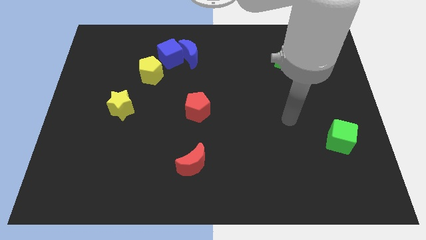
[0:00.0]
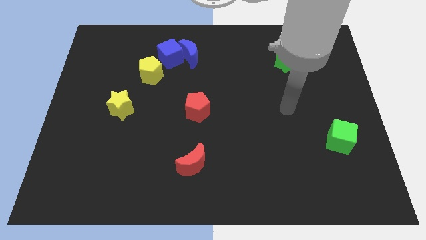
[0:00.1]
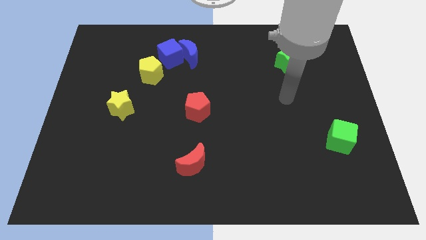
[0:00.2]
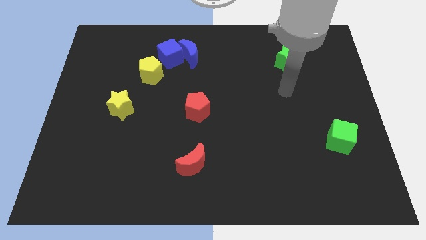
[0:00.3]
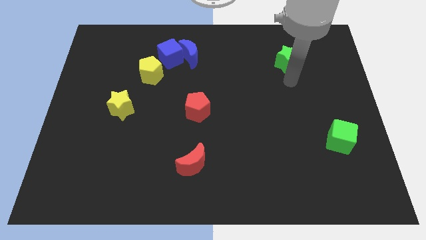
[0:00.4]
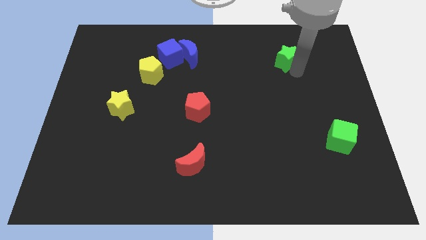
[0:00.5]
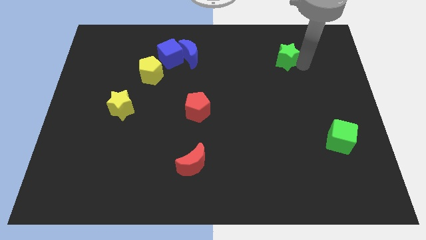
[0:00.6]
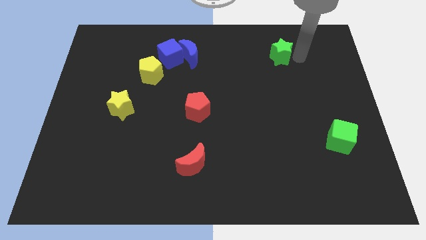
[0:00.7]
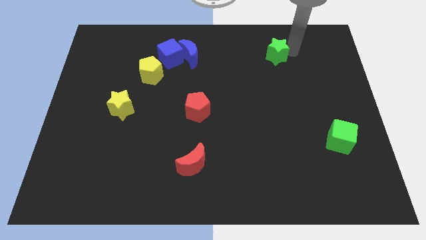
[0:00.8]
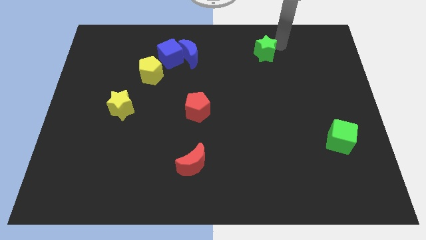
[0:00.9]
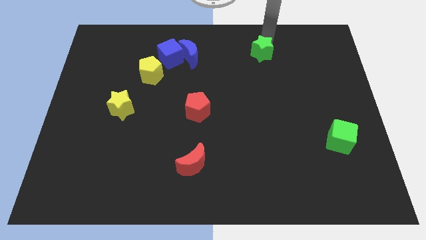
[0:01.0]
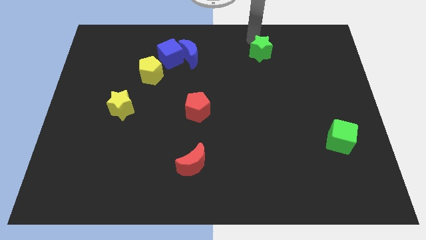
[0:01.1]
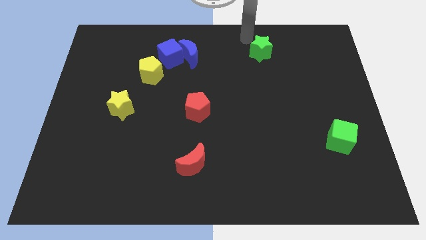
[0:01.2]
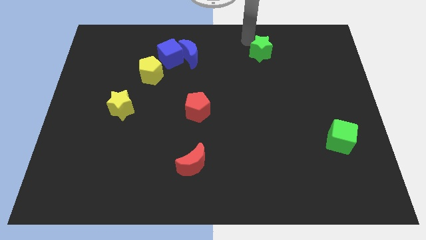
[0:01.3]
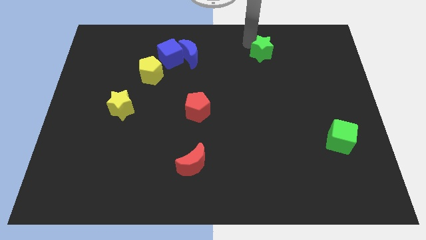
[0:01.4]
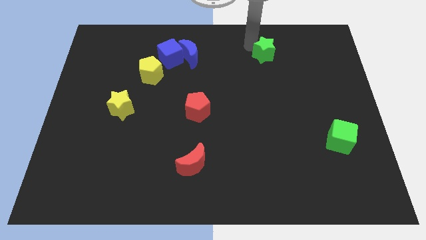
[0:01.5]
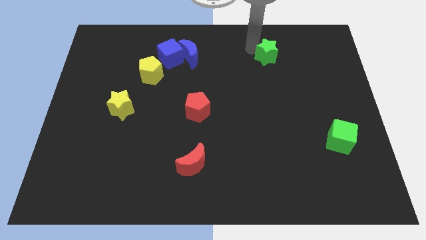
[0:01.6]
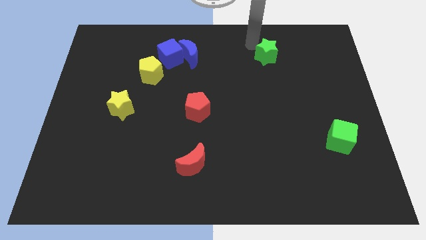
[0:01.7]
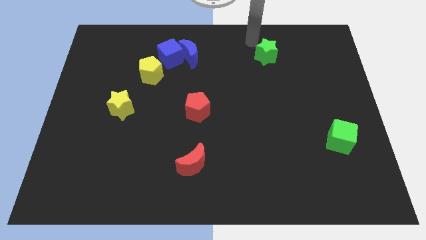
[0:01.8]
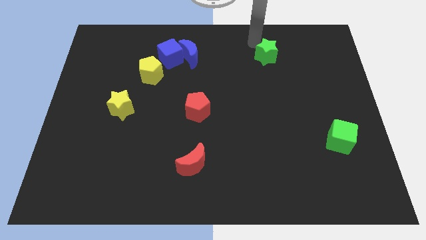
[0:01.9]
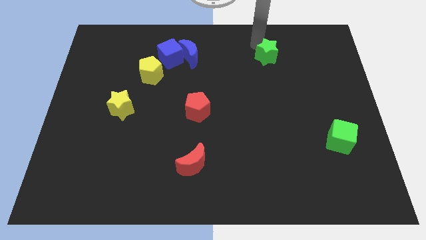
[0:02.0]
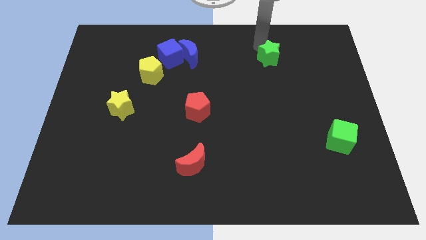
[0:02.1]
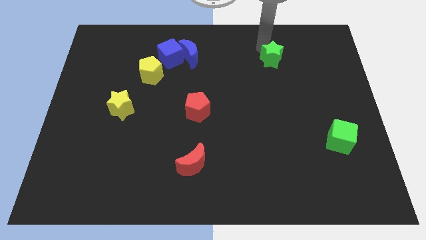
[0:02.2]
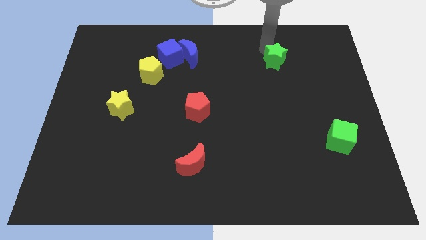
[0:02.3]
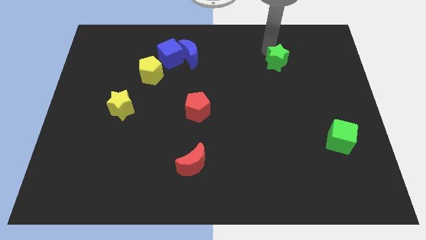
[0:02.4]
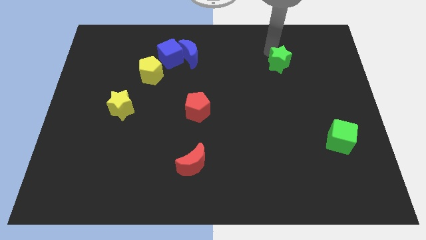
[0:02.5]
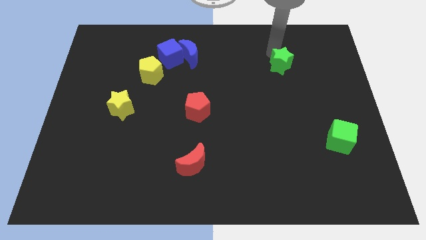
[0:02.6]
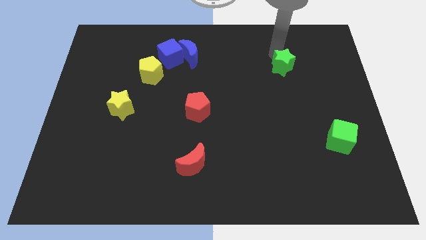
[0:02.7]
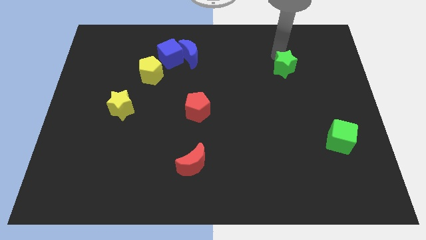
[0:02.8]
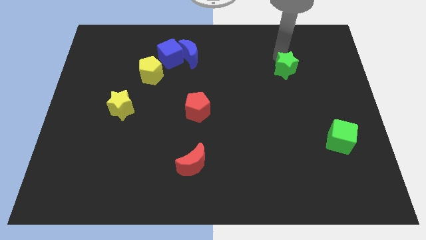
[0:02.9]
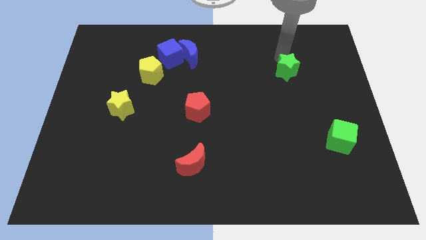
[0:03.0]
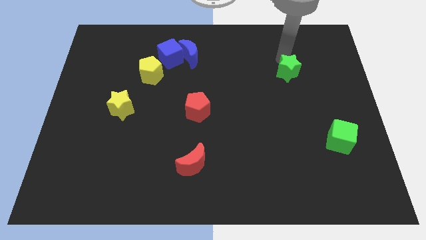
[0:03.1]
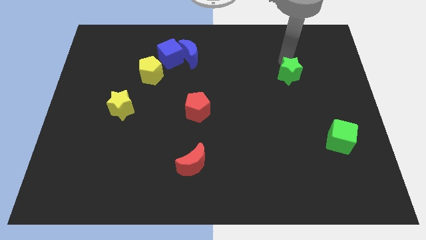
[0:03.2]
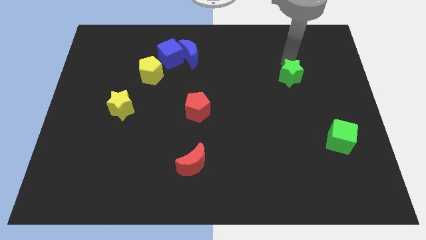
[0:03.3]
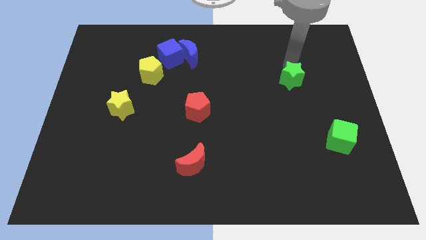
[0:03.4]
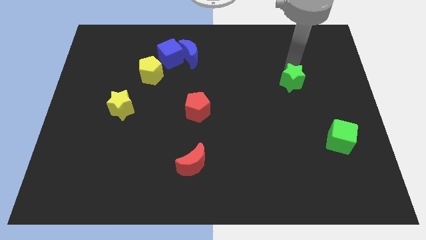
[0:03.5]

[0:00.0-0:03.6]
slightly move the green star down

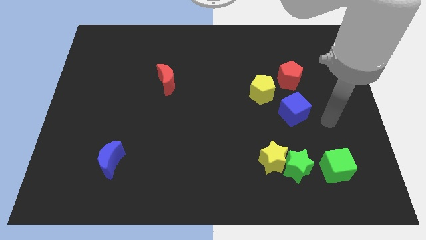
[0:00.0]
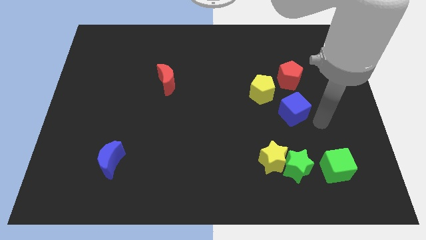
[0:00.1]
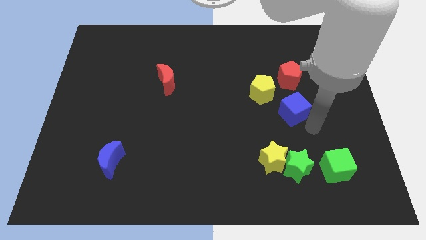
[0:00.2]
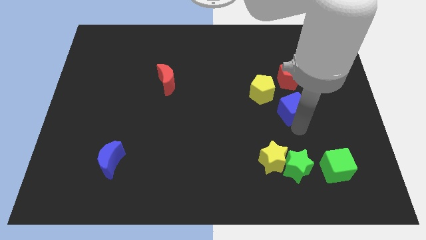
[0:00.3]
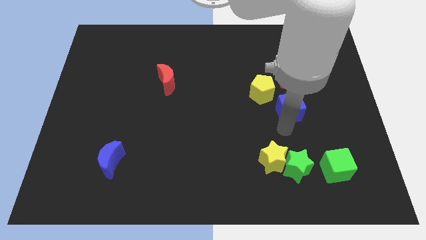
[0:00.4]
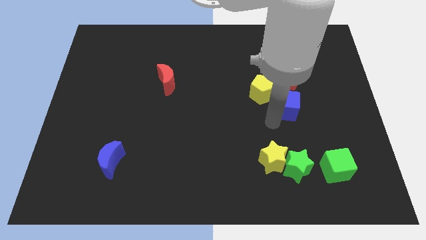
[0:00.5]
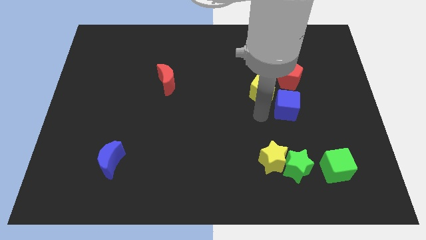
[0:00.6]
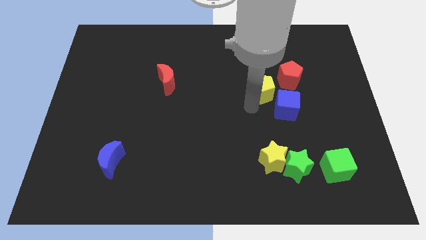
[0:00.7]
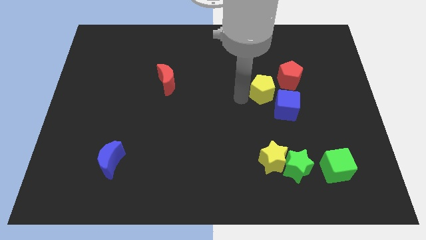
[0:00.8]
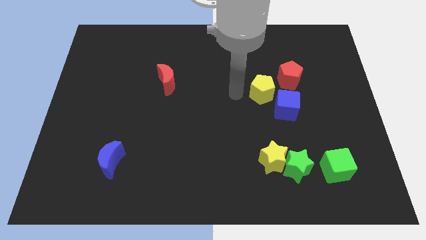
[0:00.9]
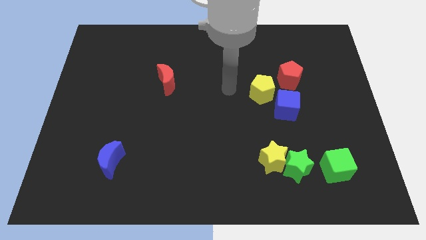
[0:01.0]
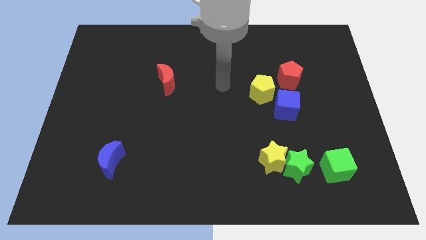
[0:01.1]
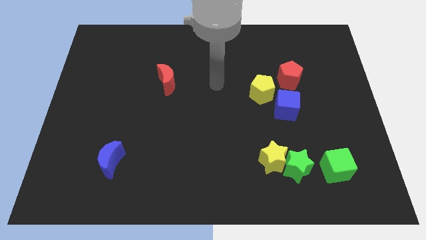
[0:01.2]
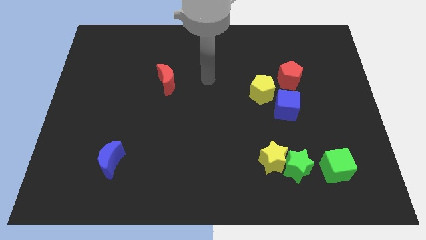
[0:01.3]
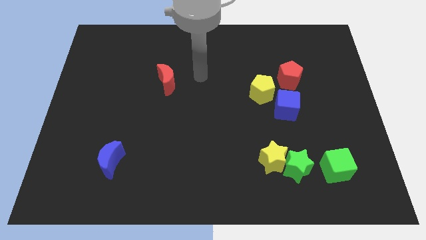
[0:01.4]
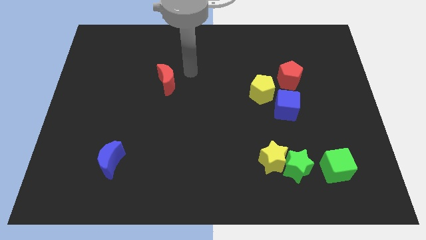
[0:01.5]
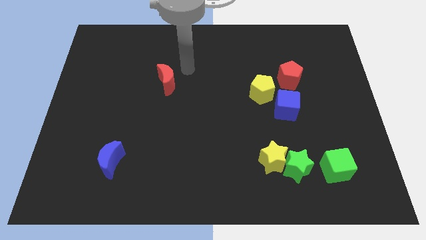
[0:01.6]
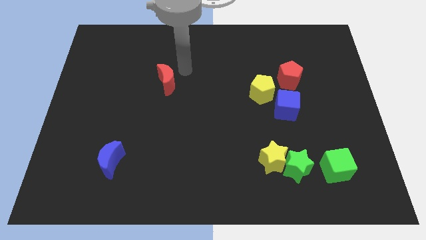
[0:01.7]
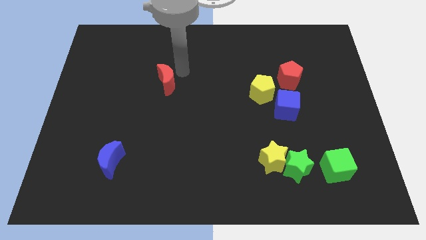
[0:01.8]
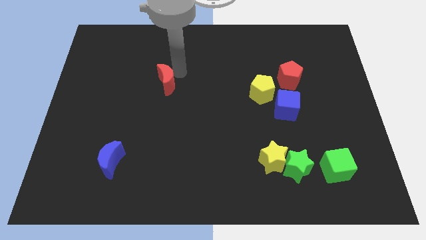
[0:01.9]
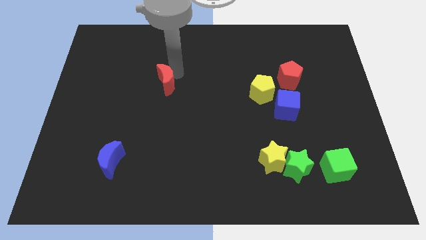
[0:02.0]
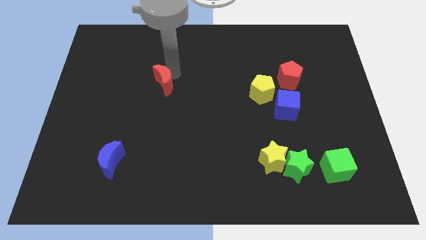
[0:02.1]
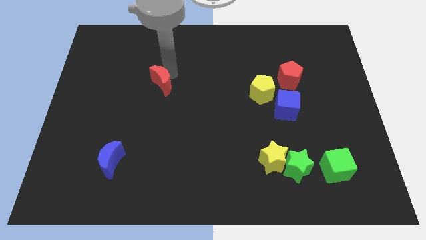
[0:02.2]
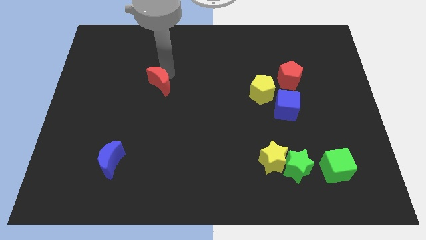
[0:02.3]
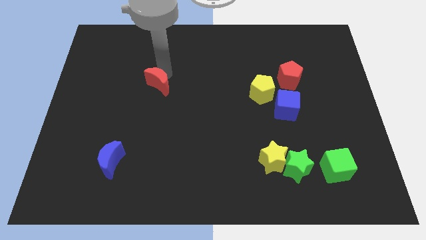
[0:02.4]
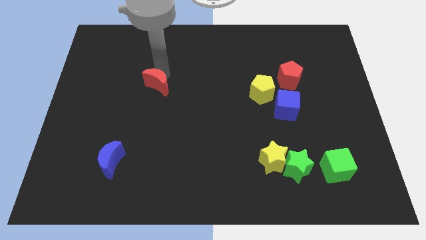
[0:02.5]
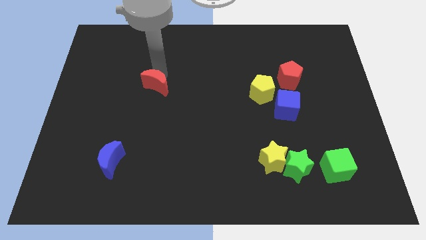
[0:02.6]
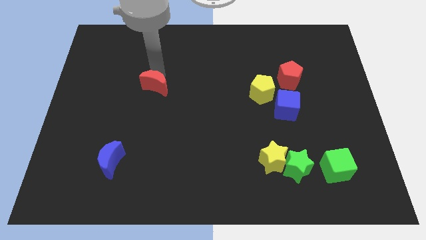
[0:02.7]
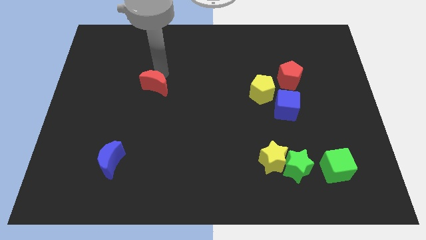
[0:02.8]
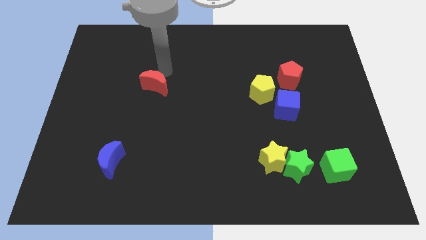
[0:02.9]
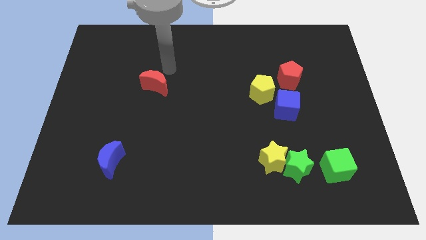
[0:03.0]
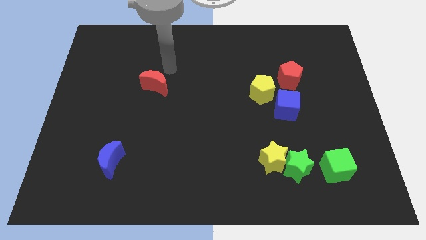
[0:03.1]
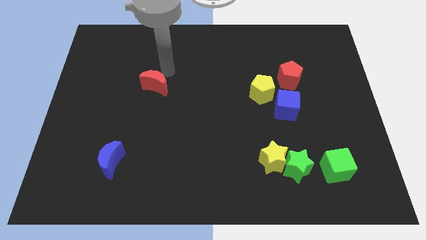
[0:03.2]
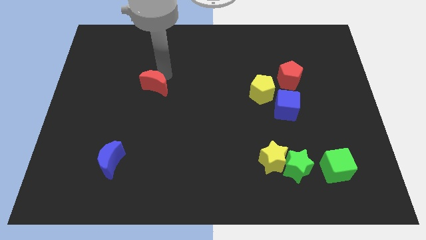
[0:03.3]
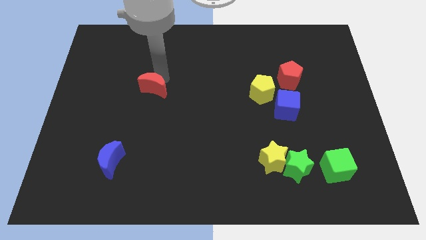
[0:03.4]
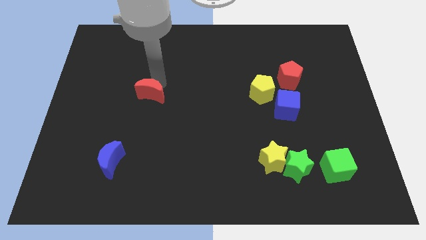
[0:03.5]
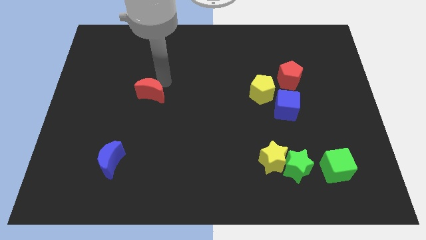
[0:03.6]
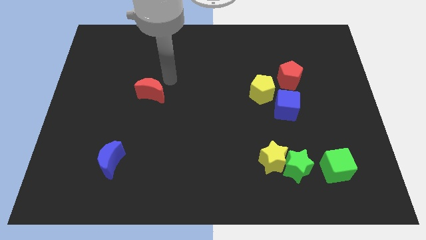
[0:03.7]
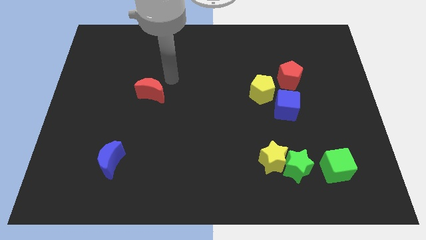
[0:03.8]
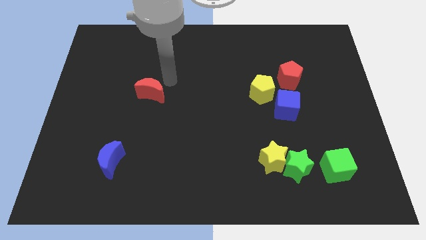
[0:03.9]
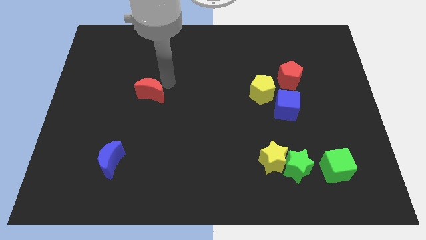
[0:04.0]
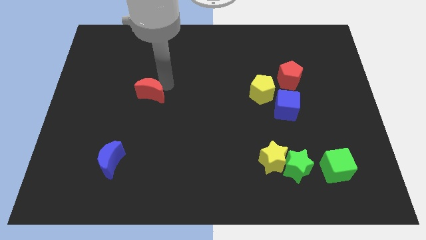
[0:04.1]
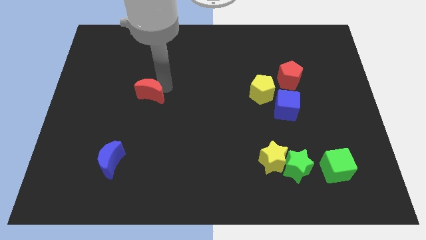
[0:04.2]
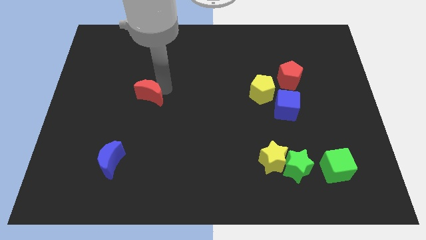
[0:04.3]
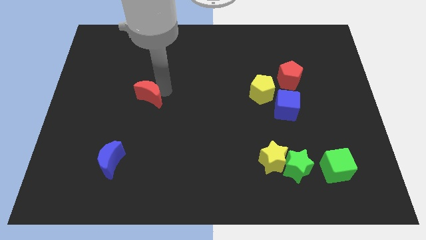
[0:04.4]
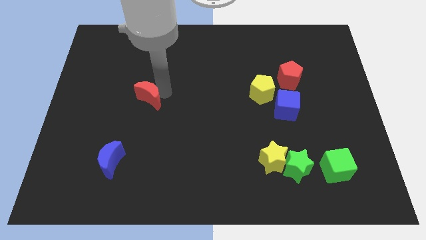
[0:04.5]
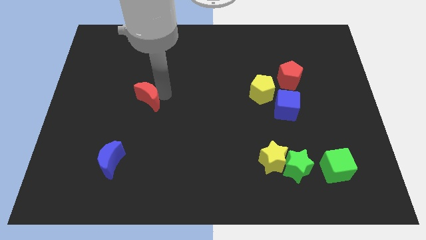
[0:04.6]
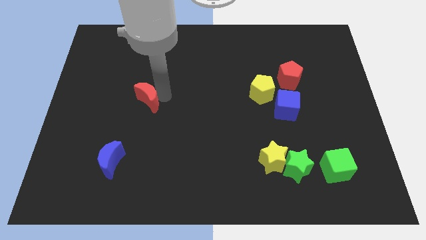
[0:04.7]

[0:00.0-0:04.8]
slide the red moon downwards and then left a bit
